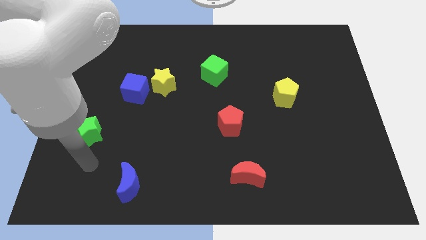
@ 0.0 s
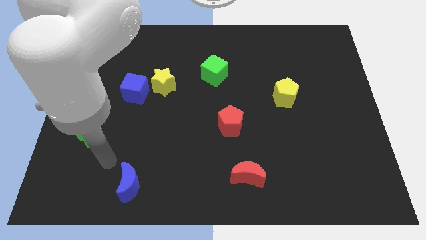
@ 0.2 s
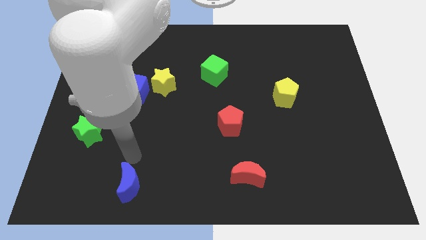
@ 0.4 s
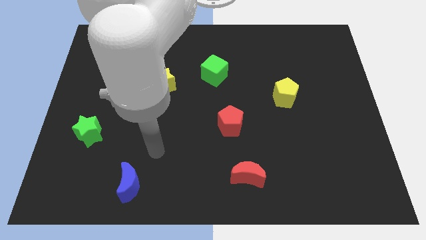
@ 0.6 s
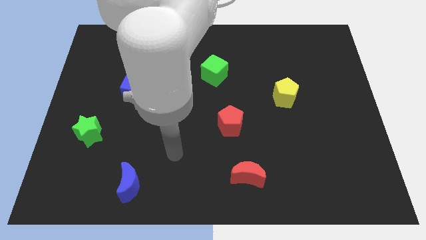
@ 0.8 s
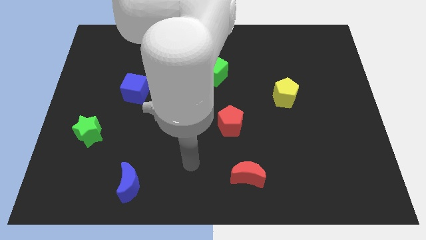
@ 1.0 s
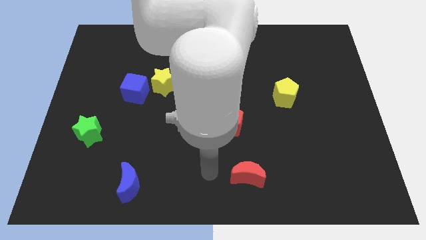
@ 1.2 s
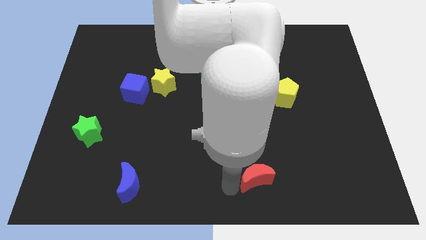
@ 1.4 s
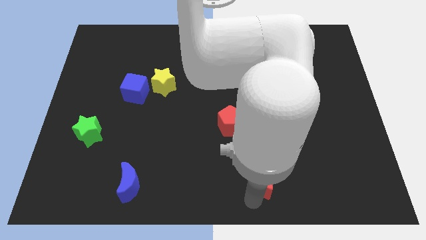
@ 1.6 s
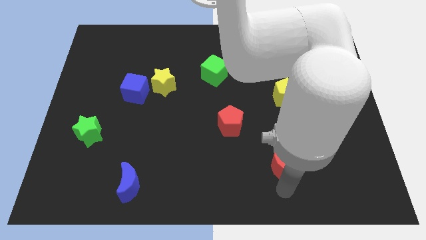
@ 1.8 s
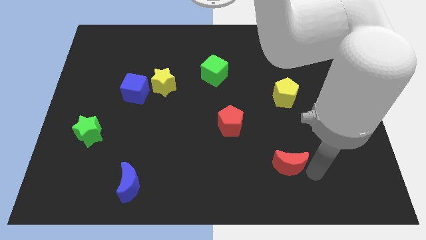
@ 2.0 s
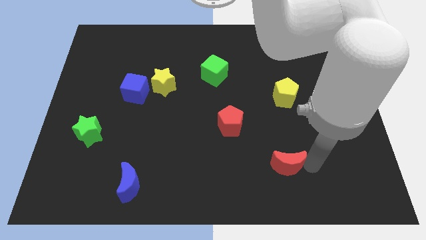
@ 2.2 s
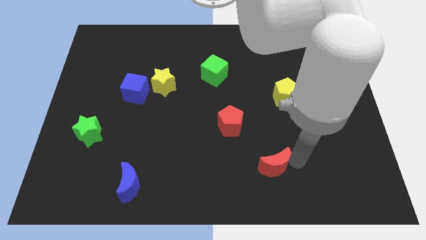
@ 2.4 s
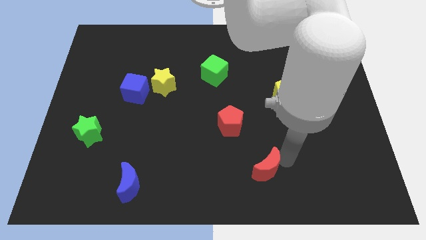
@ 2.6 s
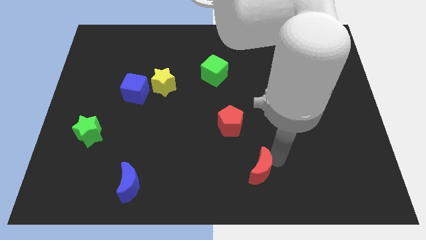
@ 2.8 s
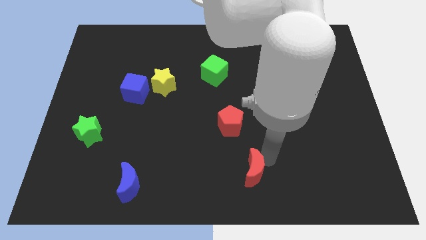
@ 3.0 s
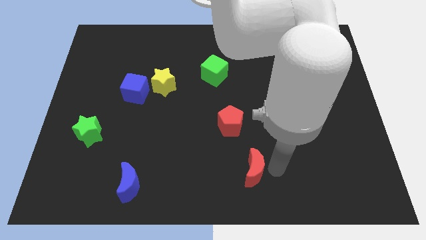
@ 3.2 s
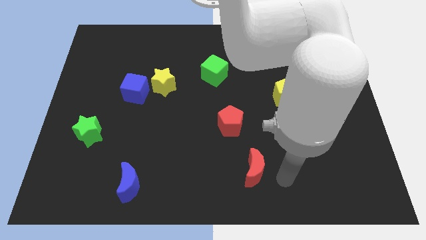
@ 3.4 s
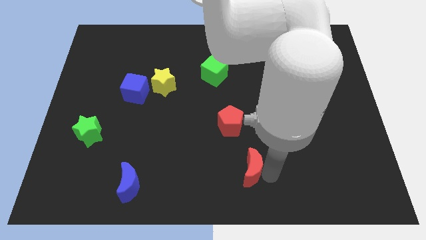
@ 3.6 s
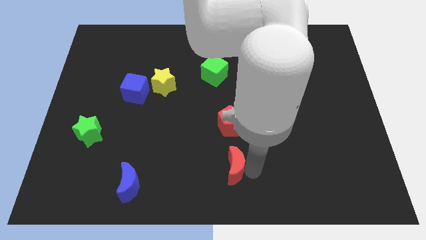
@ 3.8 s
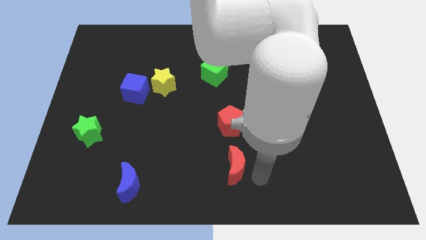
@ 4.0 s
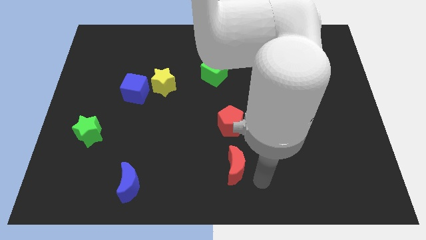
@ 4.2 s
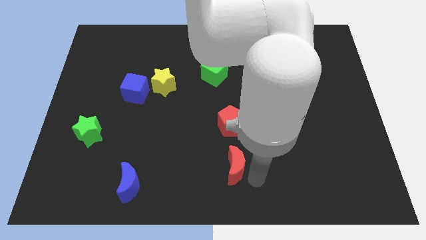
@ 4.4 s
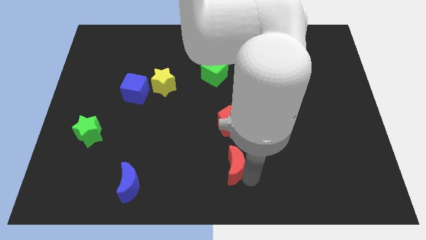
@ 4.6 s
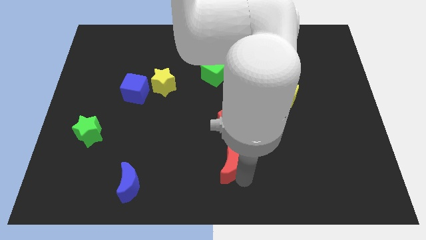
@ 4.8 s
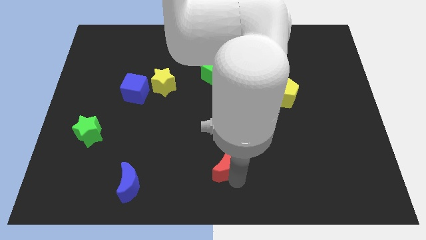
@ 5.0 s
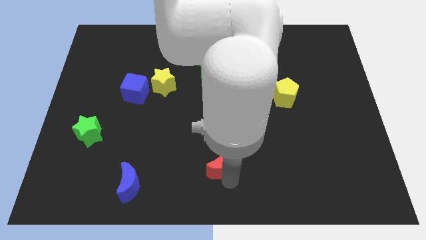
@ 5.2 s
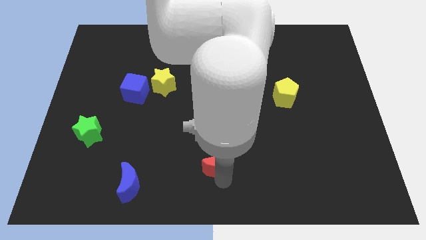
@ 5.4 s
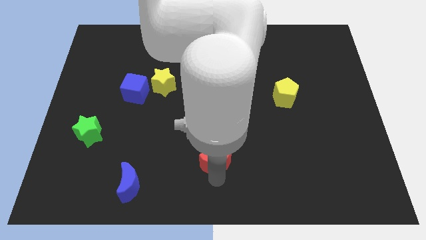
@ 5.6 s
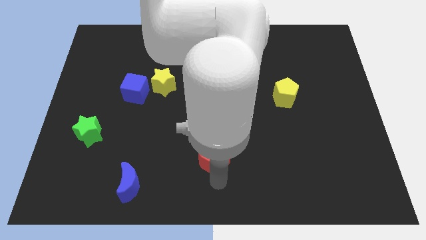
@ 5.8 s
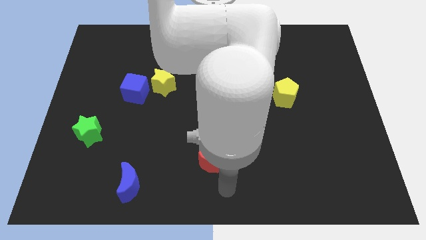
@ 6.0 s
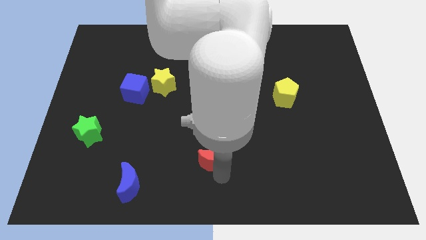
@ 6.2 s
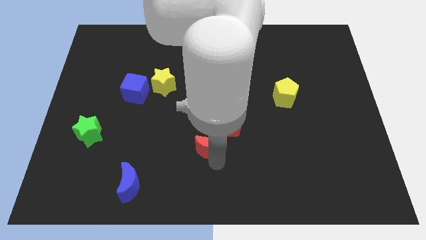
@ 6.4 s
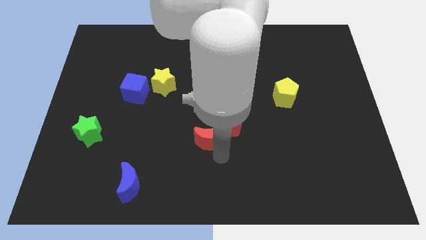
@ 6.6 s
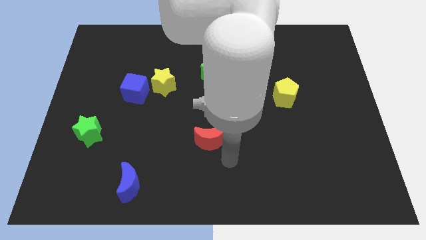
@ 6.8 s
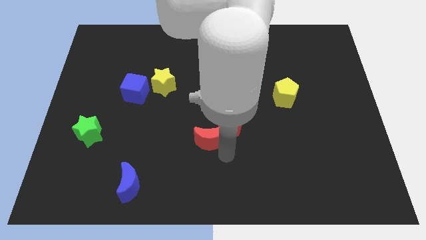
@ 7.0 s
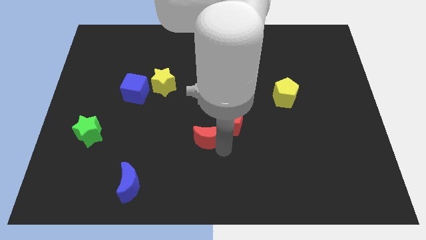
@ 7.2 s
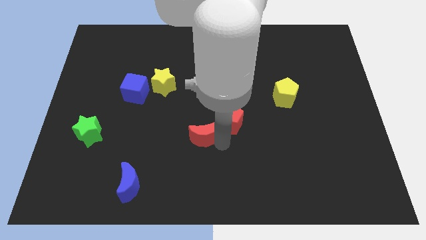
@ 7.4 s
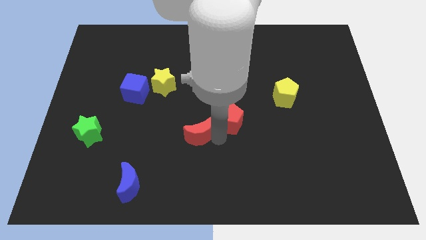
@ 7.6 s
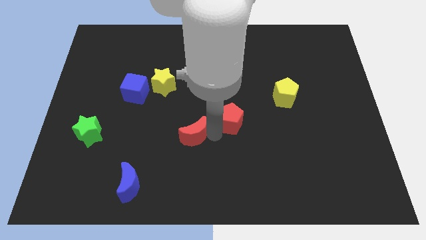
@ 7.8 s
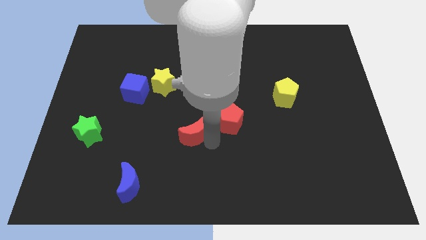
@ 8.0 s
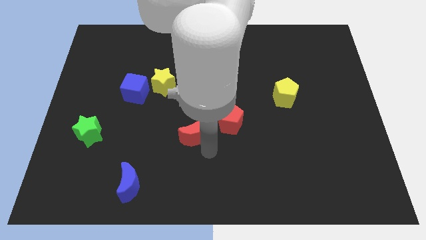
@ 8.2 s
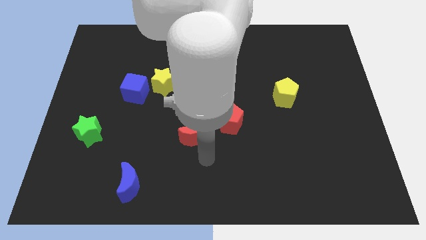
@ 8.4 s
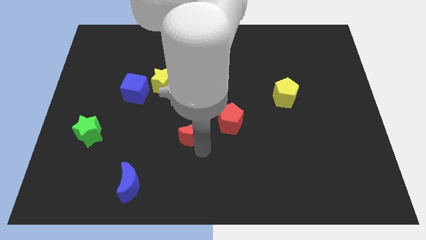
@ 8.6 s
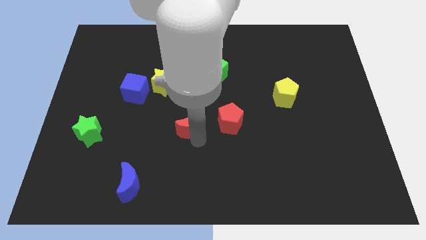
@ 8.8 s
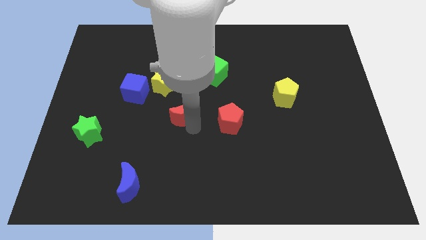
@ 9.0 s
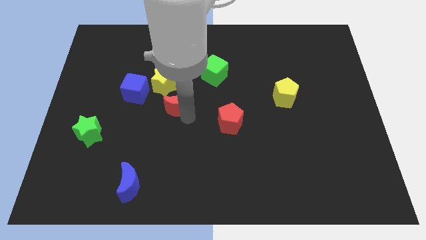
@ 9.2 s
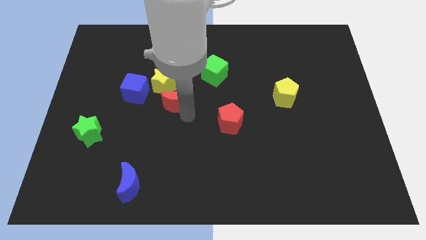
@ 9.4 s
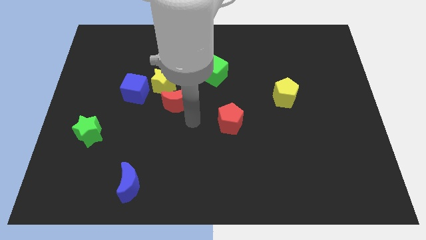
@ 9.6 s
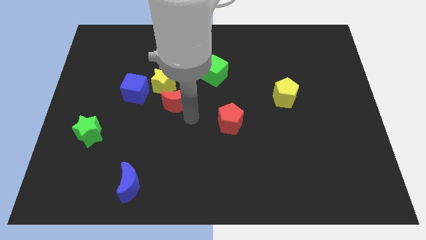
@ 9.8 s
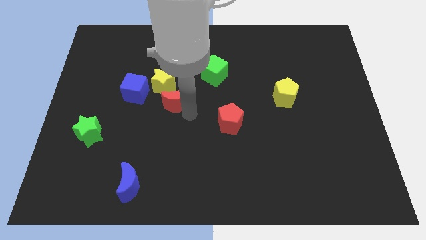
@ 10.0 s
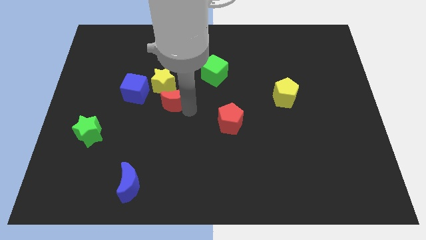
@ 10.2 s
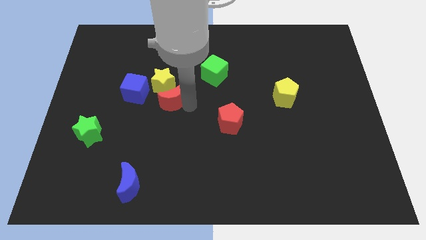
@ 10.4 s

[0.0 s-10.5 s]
move the red moon to the yellow star

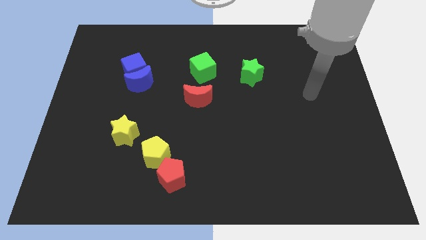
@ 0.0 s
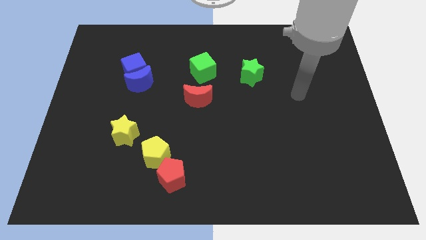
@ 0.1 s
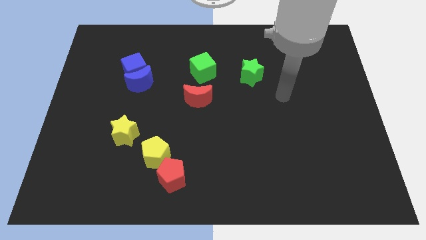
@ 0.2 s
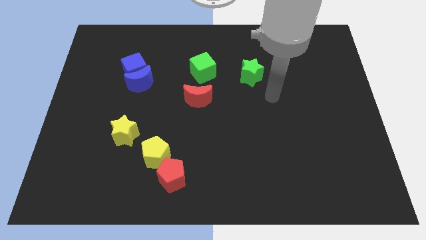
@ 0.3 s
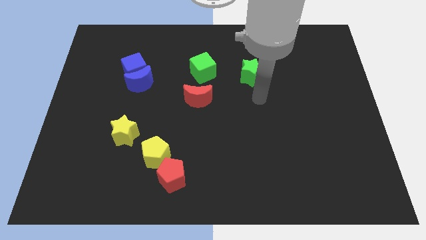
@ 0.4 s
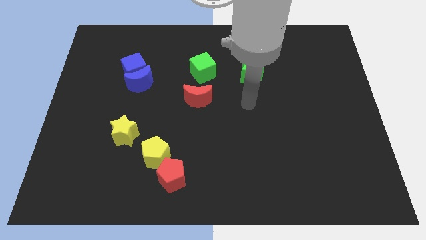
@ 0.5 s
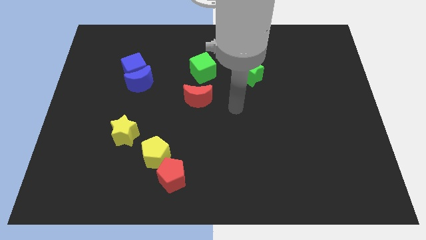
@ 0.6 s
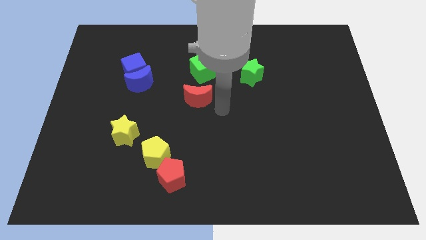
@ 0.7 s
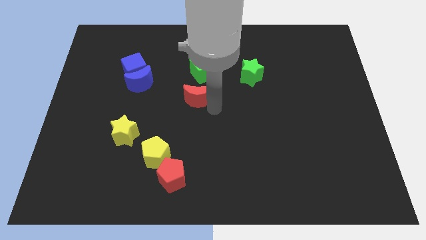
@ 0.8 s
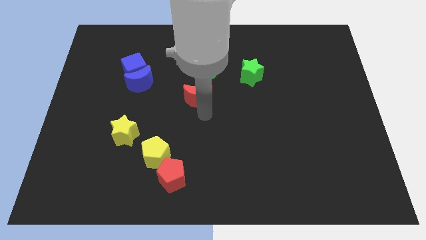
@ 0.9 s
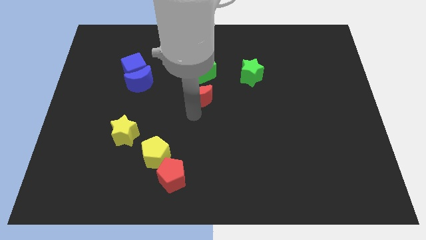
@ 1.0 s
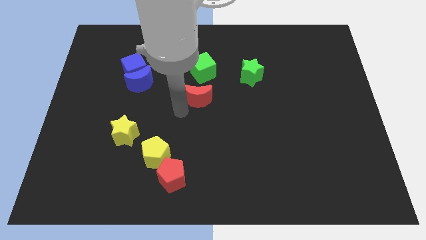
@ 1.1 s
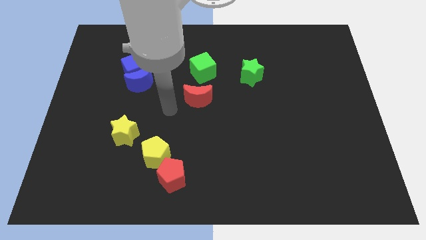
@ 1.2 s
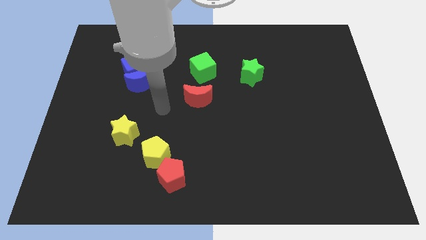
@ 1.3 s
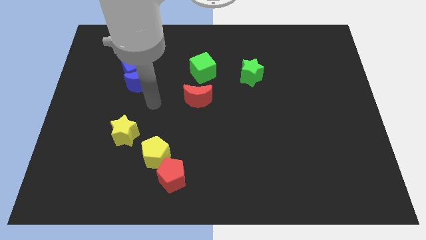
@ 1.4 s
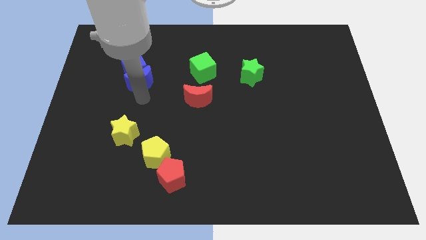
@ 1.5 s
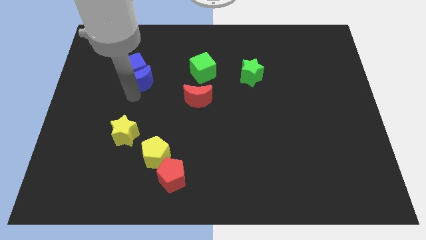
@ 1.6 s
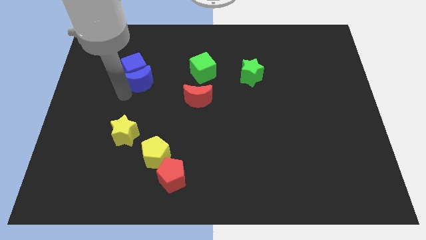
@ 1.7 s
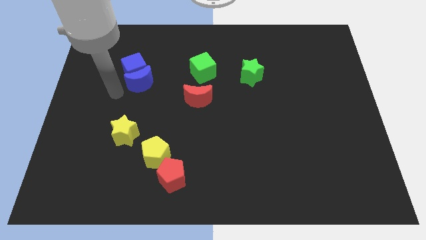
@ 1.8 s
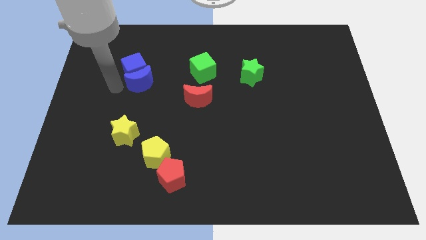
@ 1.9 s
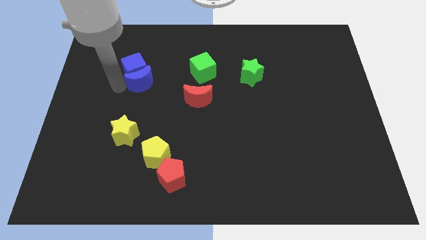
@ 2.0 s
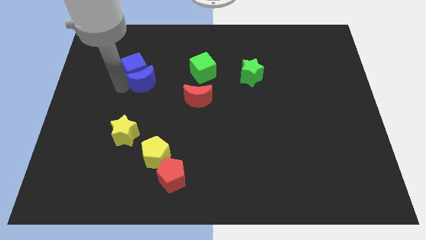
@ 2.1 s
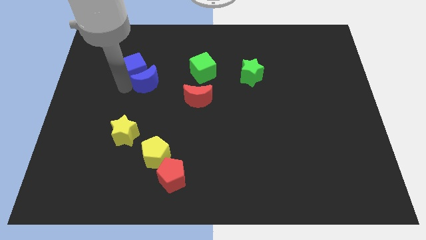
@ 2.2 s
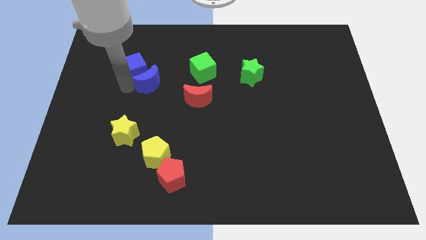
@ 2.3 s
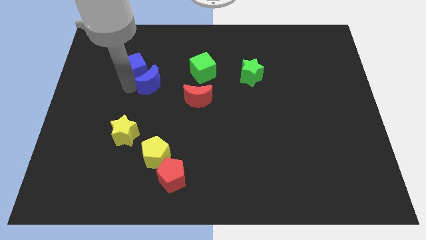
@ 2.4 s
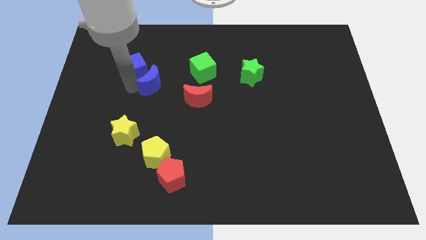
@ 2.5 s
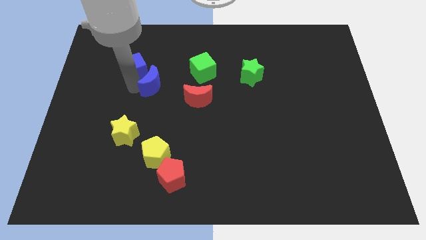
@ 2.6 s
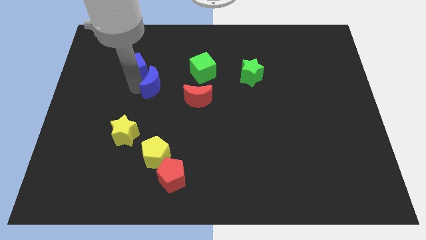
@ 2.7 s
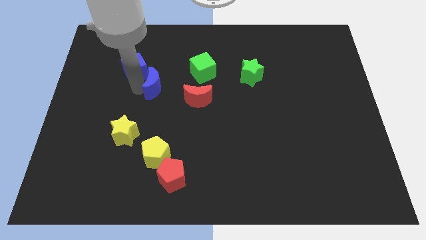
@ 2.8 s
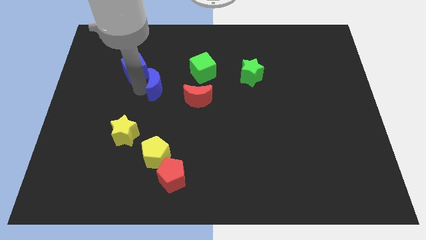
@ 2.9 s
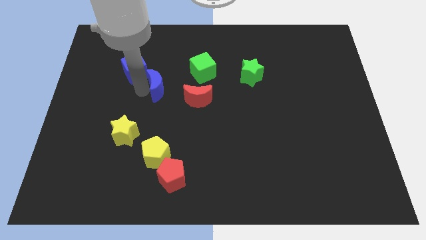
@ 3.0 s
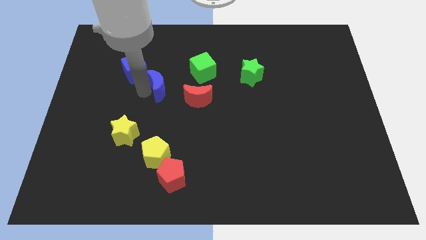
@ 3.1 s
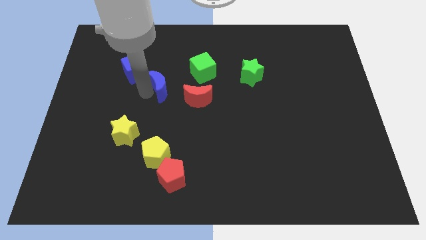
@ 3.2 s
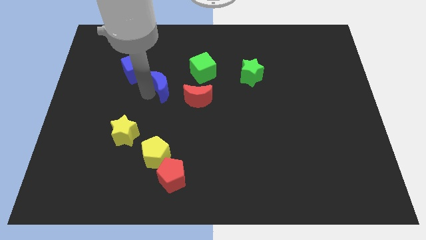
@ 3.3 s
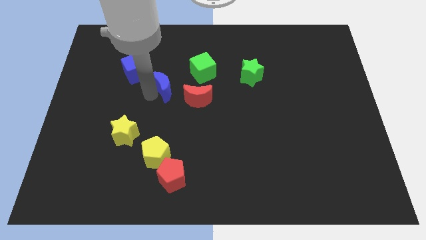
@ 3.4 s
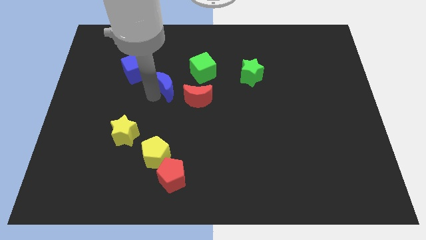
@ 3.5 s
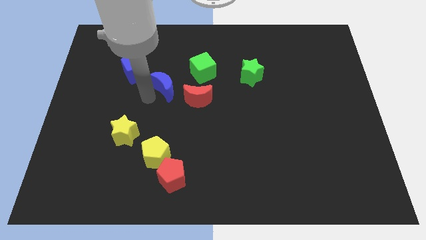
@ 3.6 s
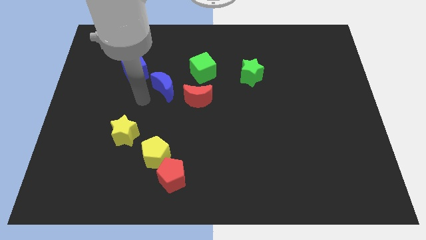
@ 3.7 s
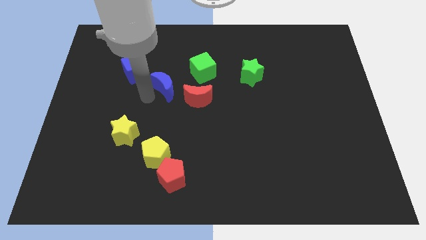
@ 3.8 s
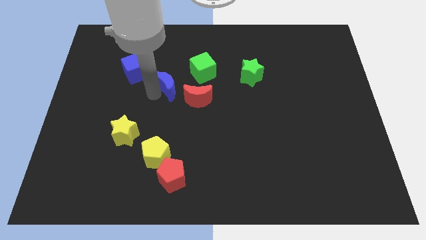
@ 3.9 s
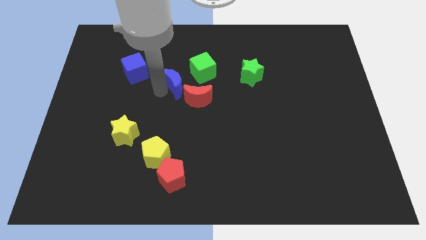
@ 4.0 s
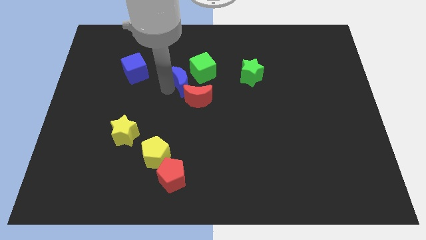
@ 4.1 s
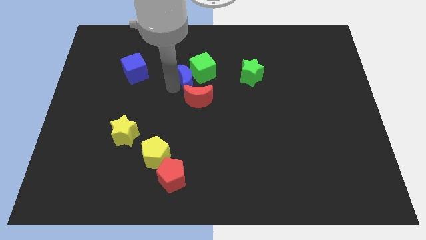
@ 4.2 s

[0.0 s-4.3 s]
slide the blue moon towards the green cube
